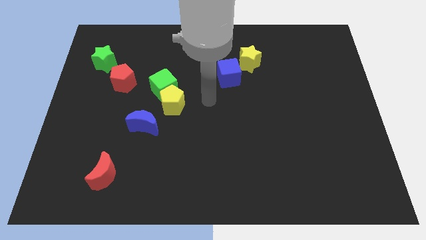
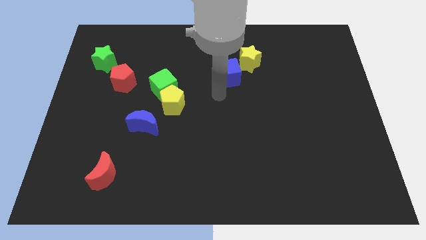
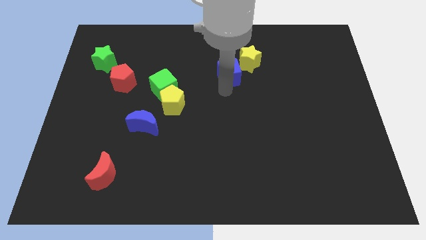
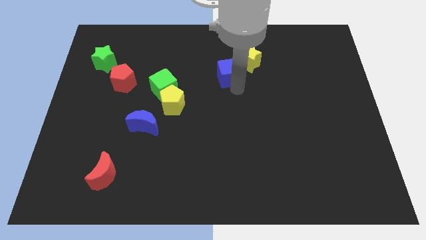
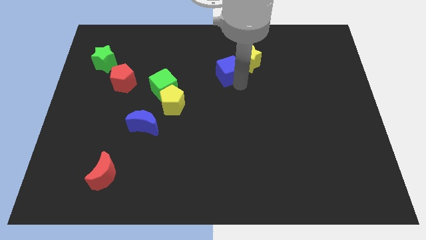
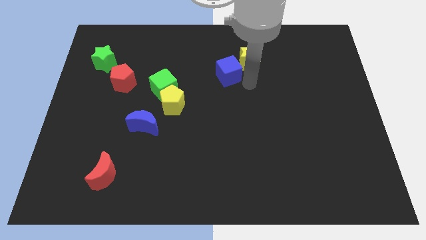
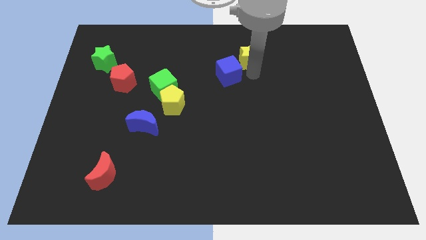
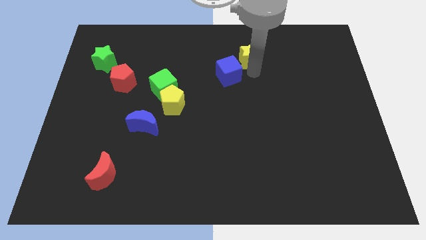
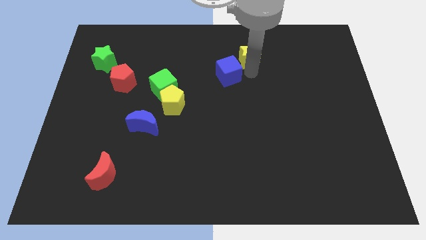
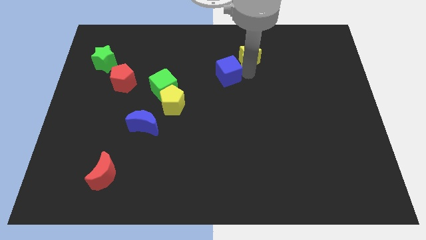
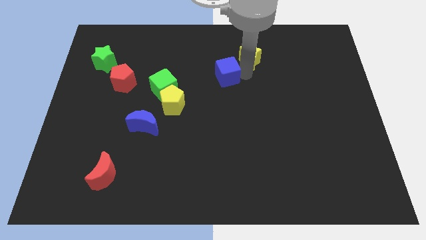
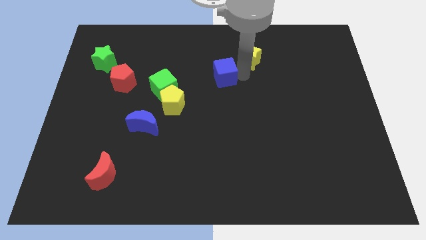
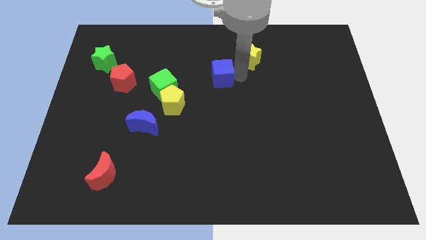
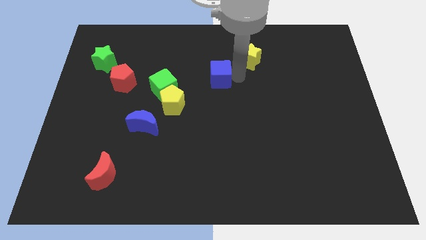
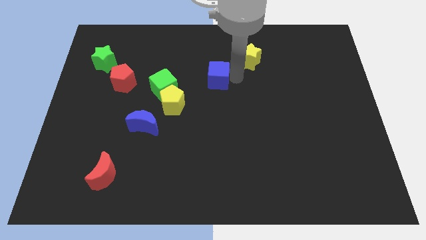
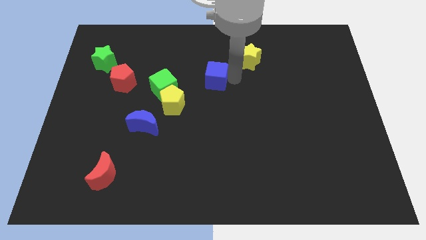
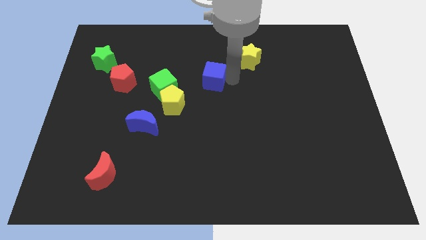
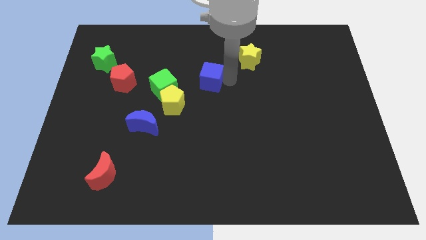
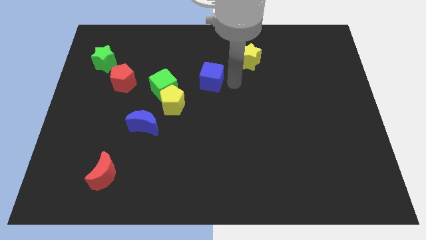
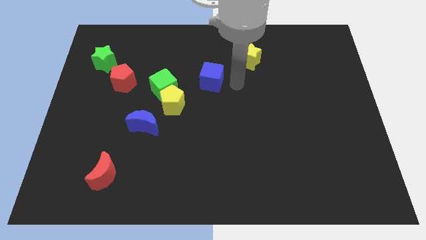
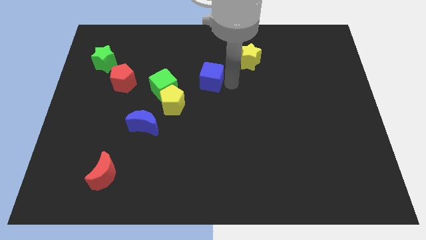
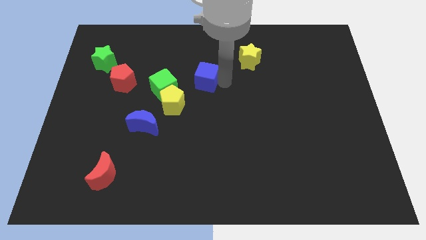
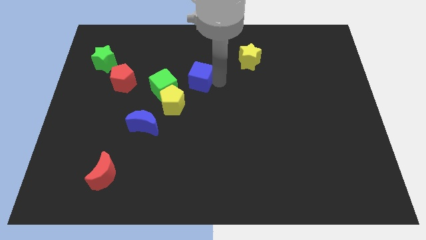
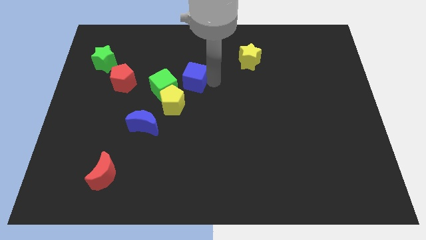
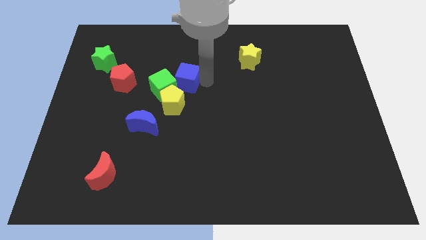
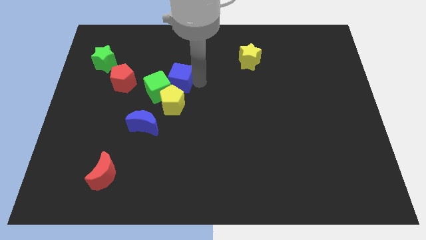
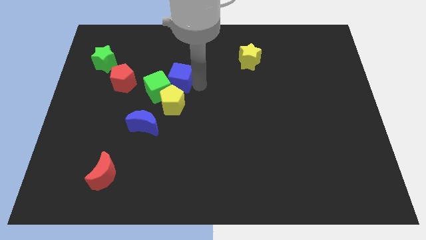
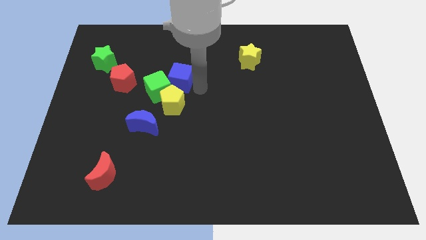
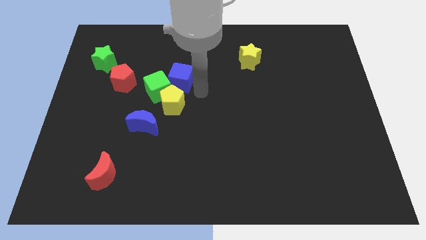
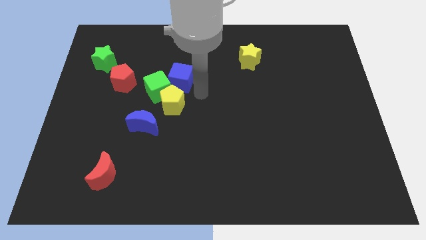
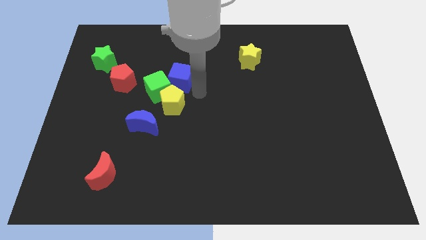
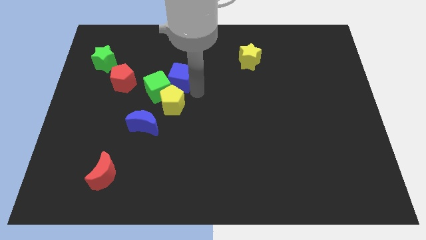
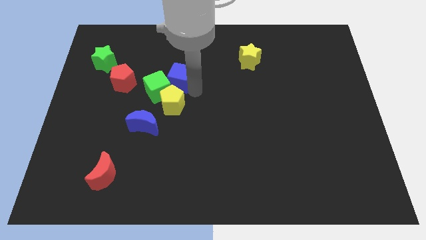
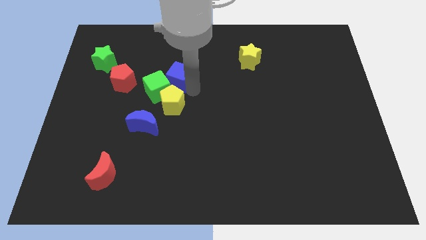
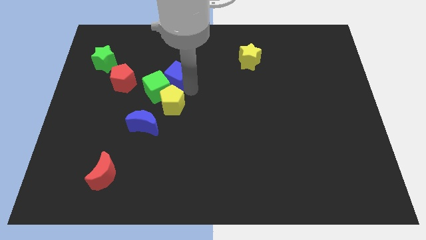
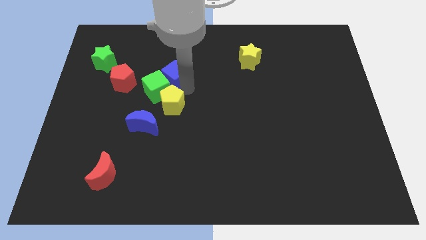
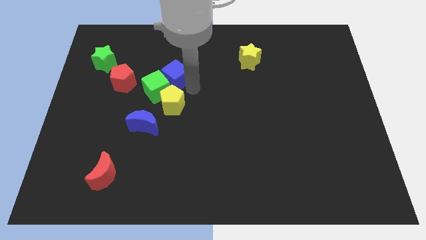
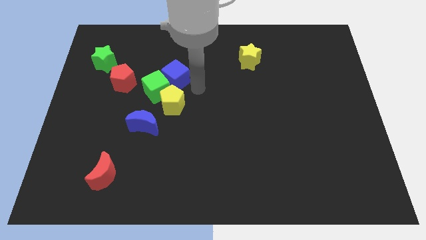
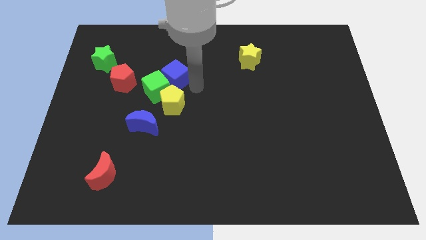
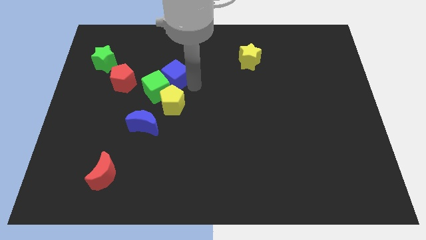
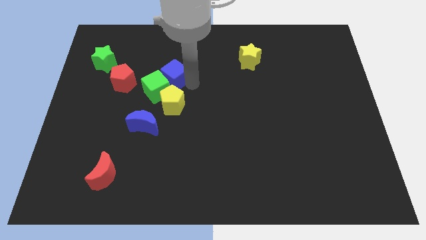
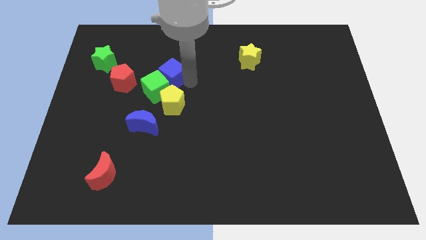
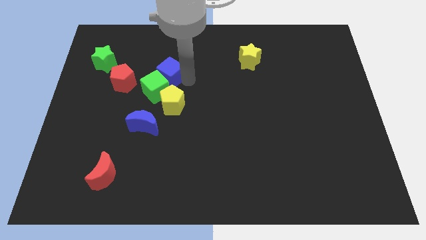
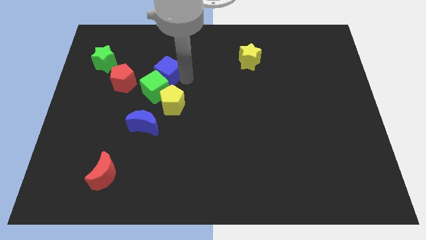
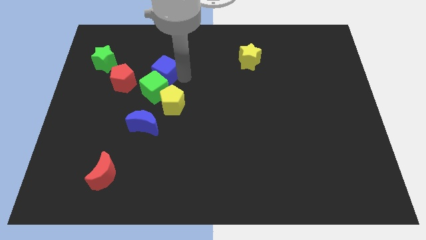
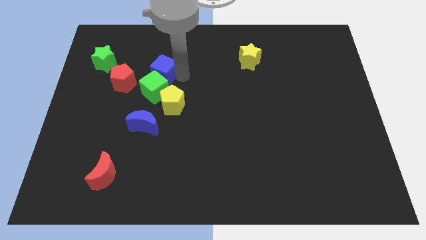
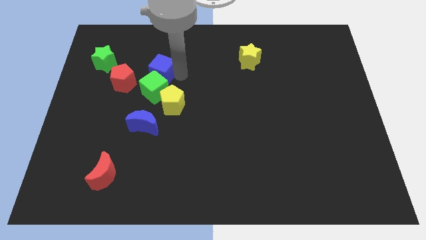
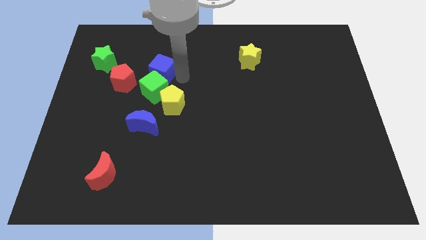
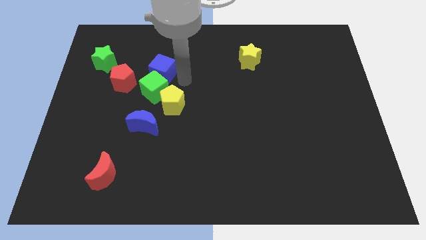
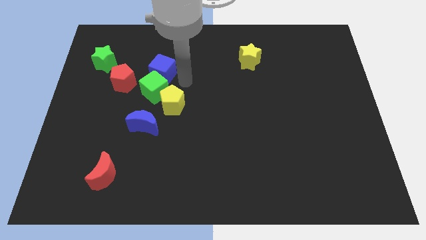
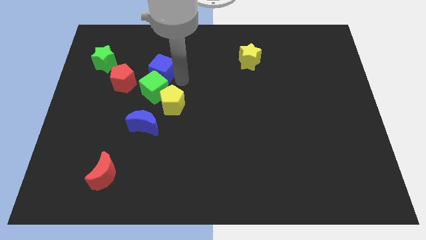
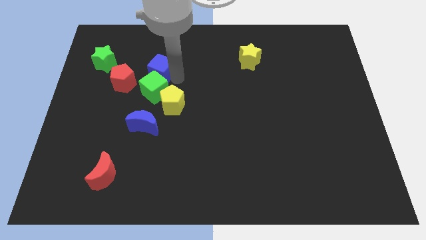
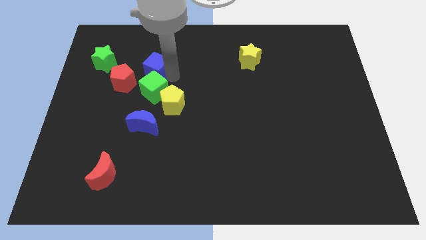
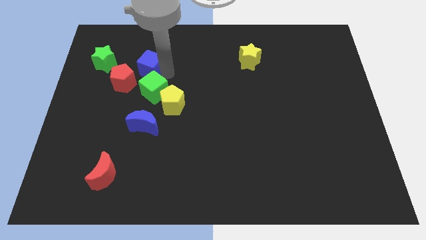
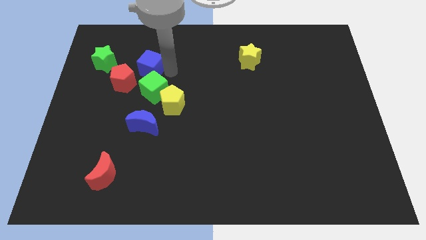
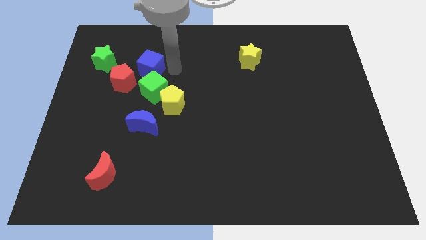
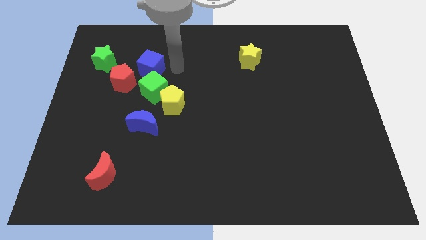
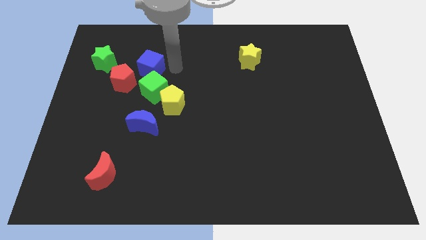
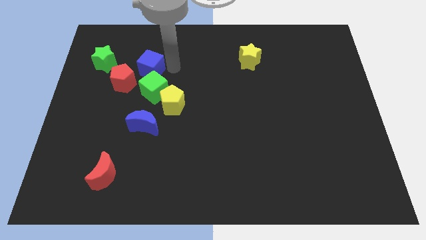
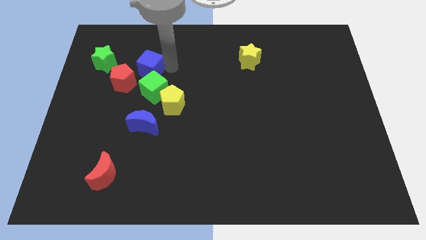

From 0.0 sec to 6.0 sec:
move the blue cube to the left

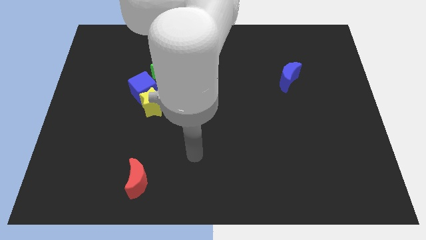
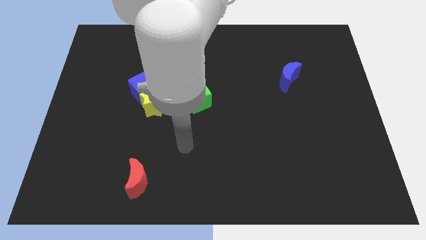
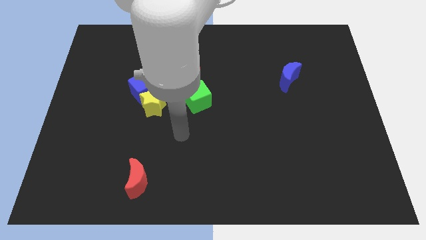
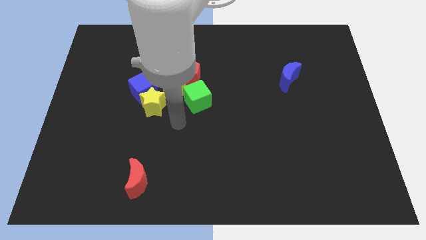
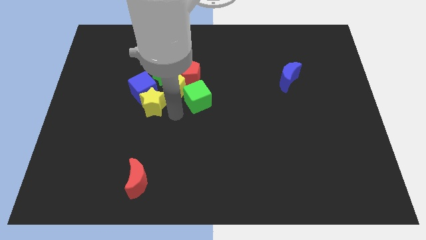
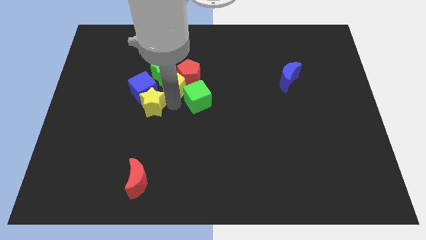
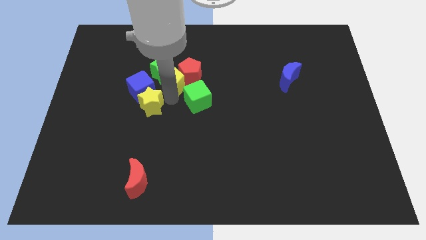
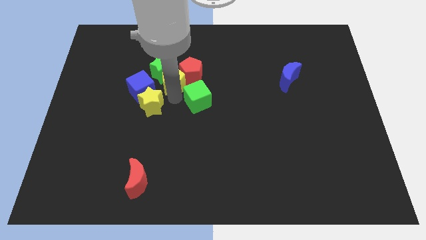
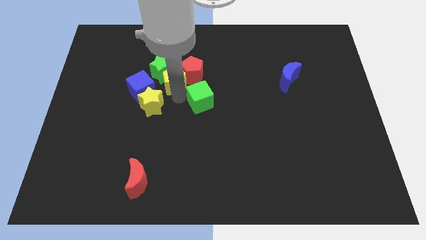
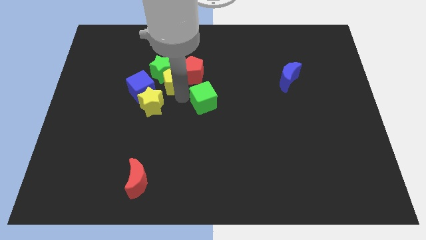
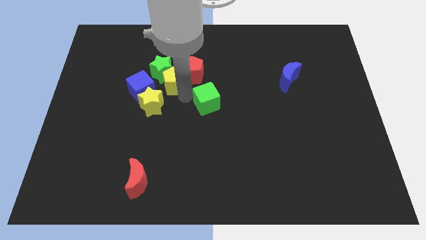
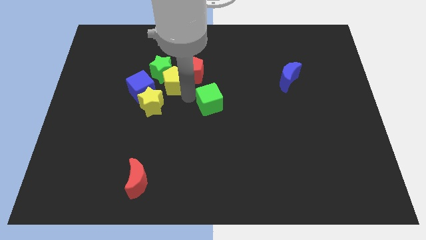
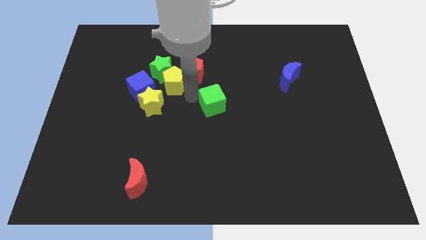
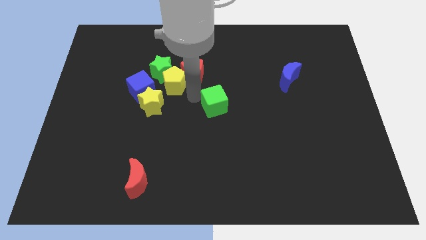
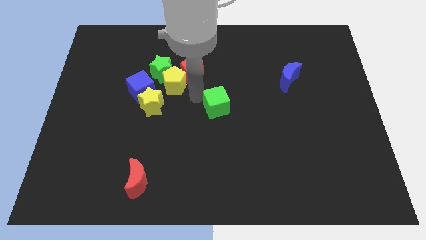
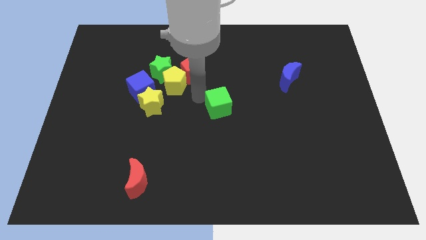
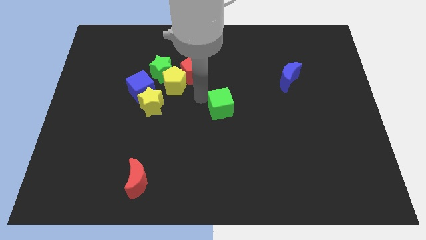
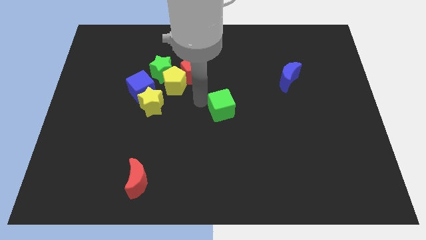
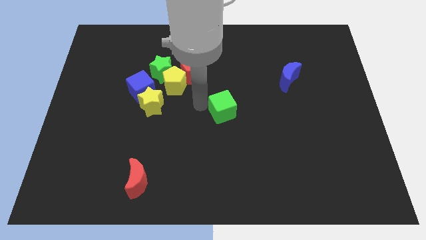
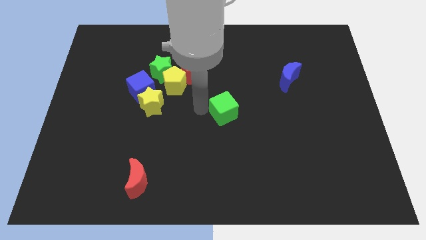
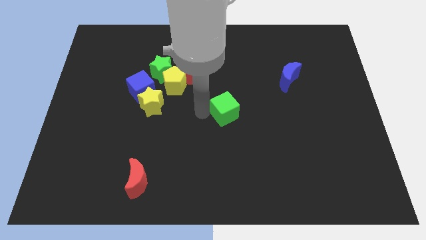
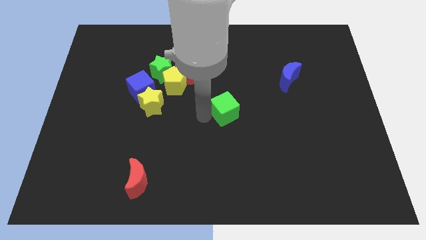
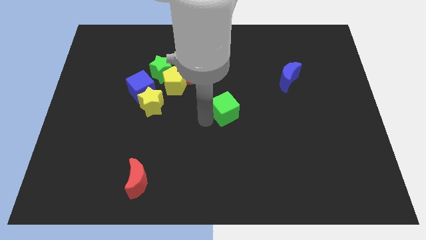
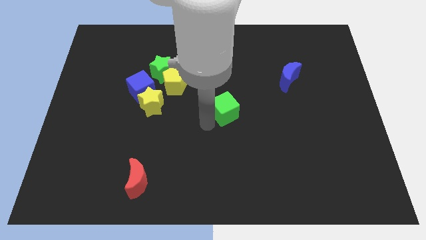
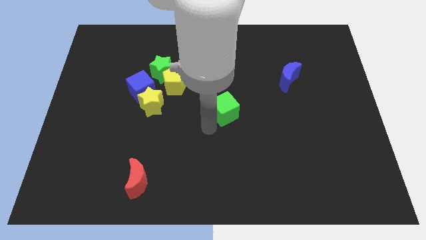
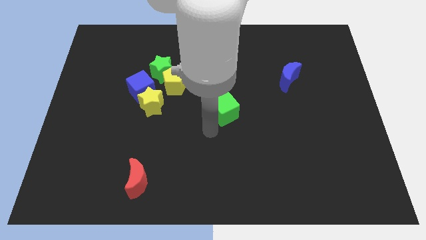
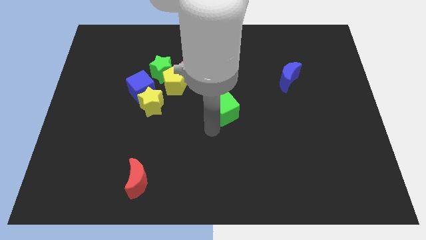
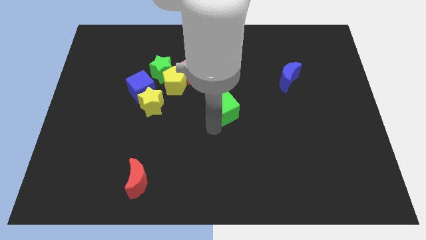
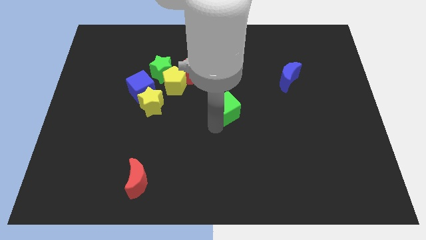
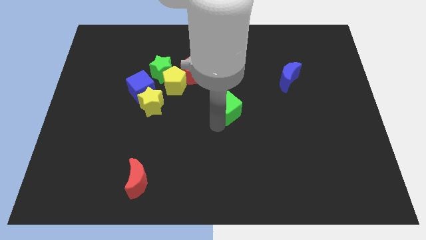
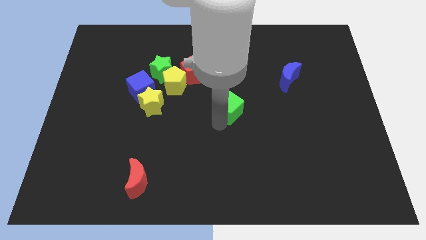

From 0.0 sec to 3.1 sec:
push the green cube to the right a little bit
